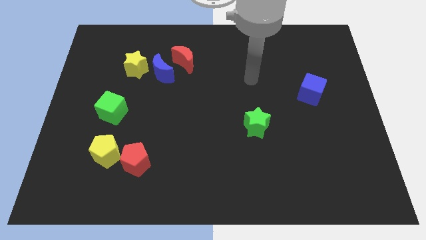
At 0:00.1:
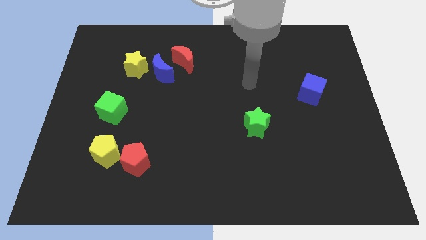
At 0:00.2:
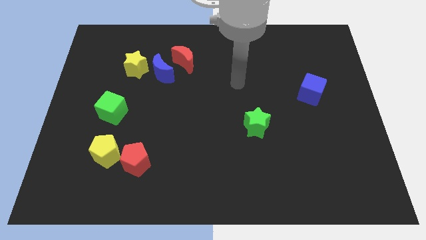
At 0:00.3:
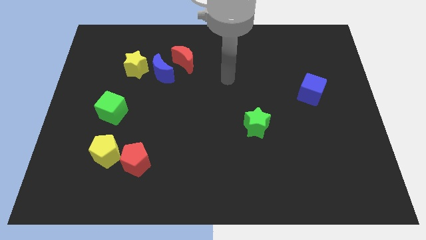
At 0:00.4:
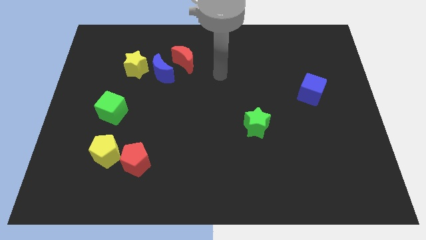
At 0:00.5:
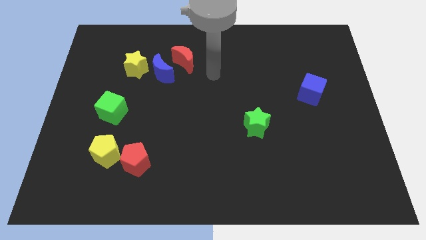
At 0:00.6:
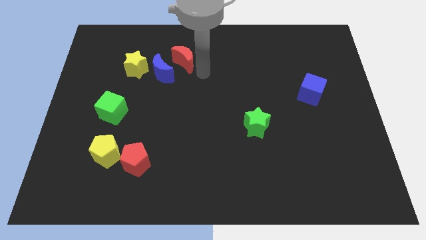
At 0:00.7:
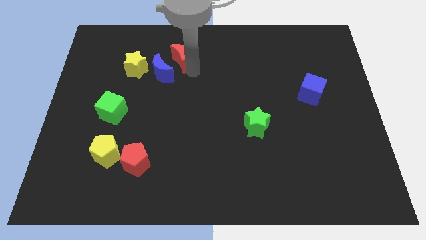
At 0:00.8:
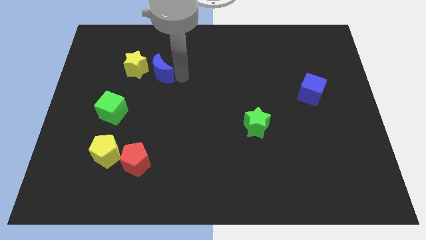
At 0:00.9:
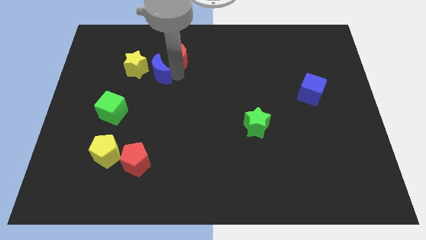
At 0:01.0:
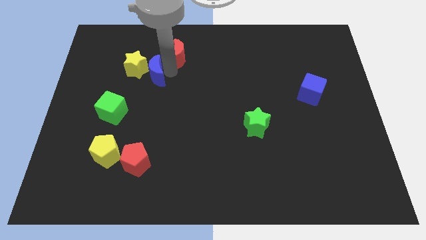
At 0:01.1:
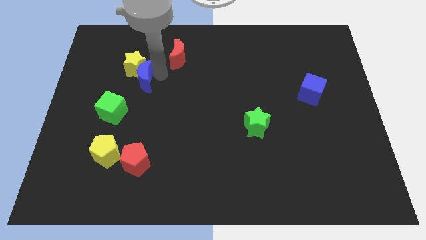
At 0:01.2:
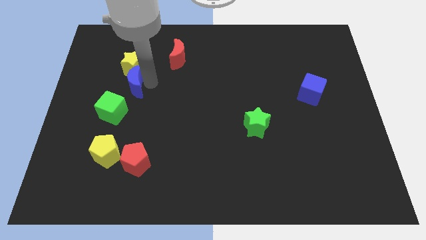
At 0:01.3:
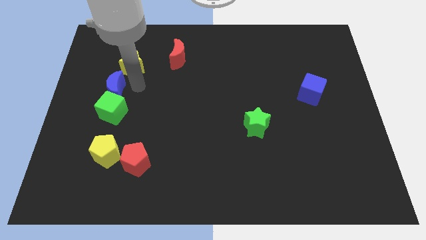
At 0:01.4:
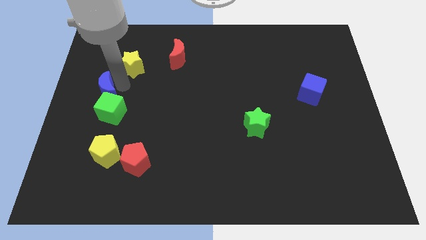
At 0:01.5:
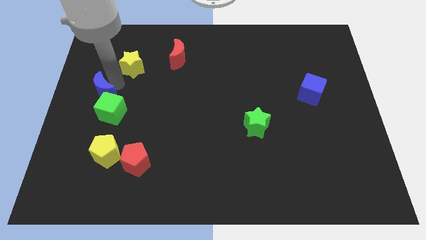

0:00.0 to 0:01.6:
pull the yellow star apart from the blue moon

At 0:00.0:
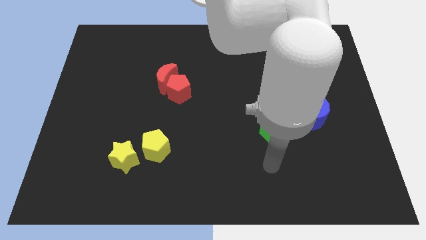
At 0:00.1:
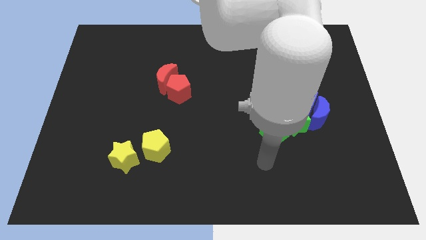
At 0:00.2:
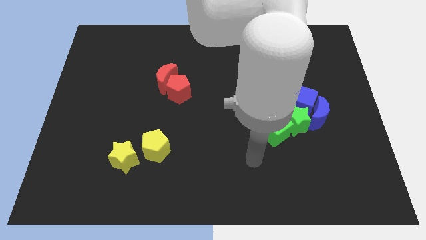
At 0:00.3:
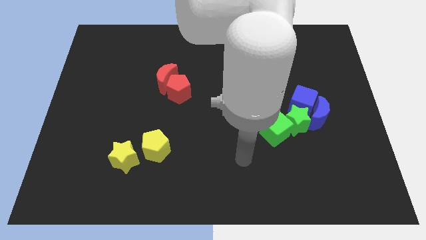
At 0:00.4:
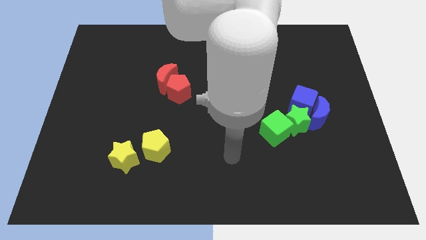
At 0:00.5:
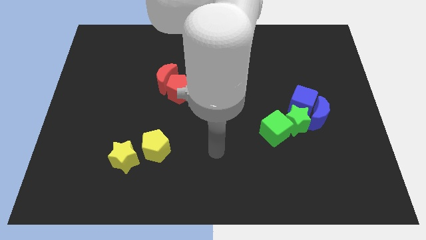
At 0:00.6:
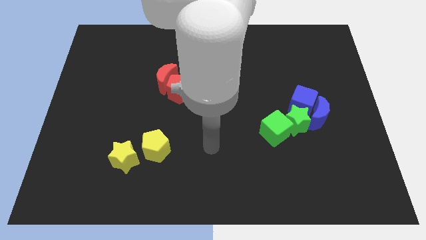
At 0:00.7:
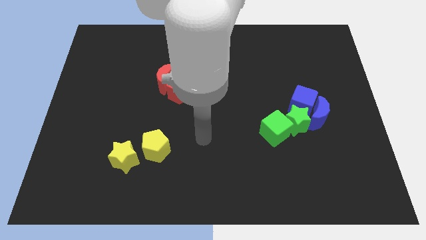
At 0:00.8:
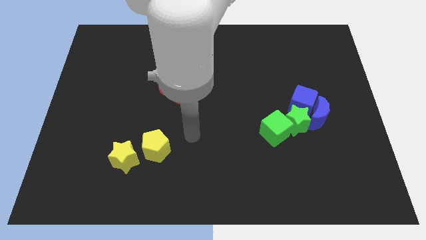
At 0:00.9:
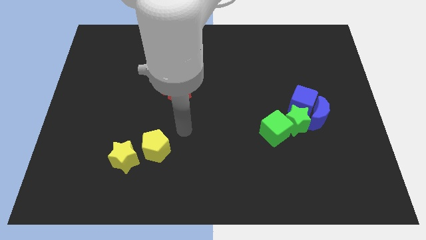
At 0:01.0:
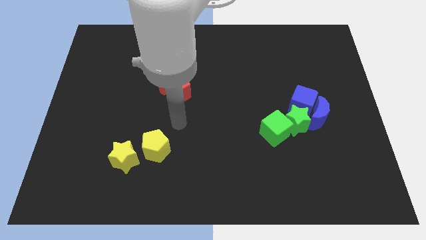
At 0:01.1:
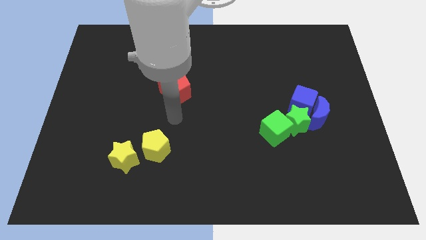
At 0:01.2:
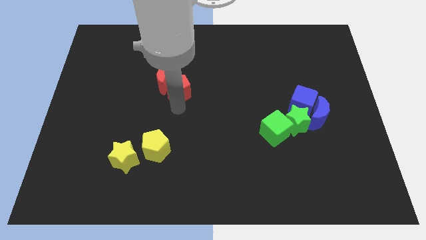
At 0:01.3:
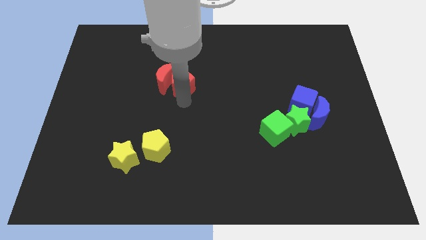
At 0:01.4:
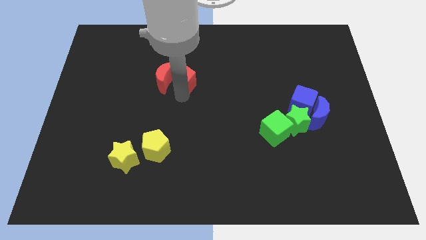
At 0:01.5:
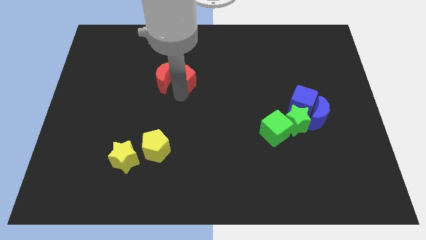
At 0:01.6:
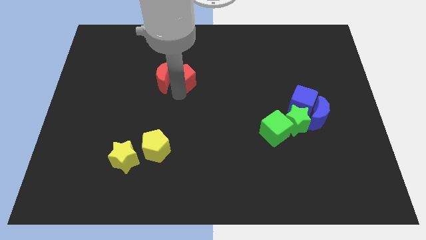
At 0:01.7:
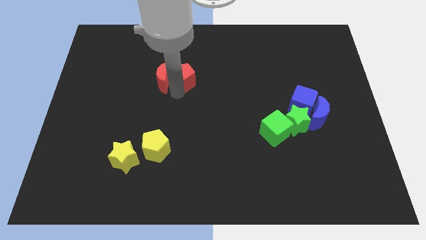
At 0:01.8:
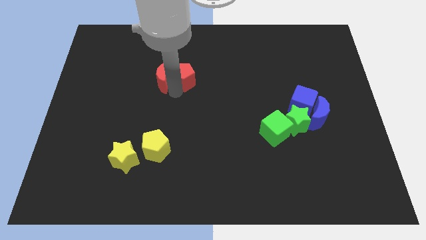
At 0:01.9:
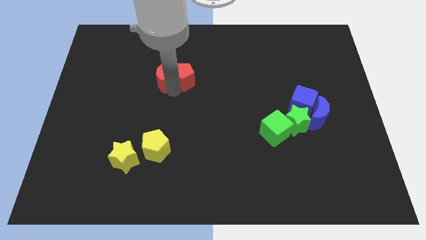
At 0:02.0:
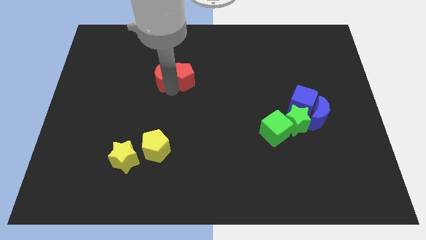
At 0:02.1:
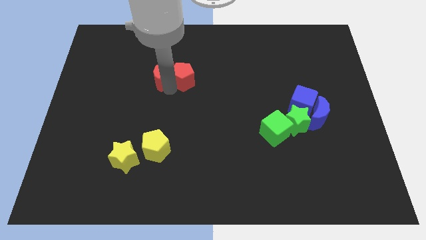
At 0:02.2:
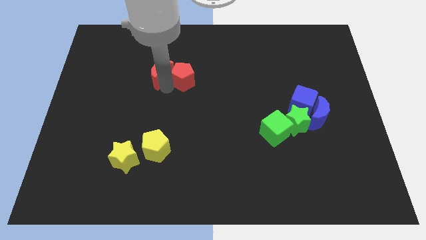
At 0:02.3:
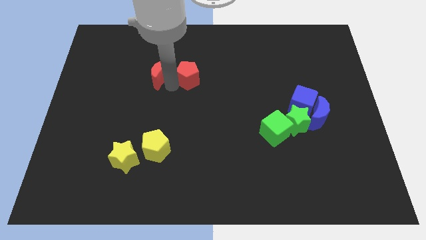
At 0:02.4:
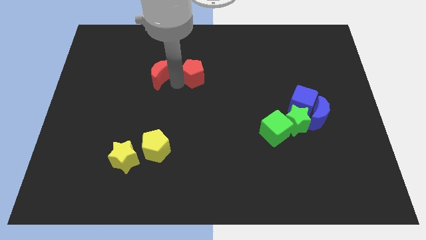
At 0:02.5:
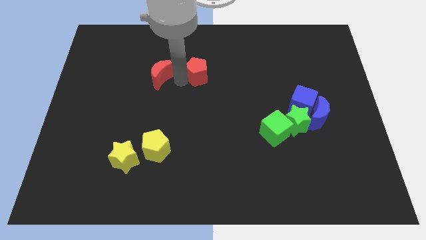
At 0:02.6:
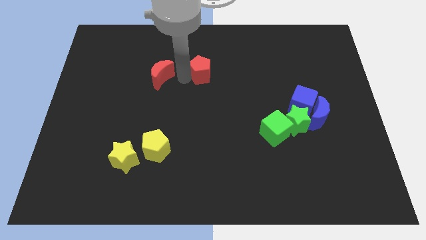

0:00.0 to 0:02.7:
move the red moon away from the red pentagon

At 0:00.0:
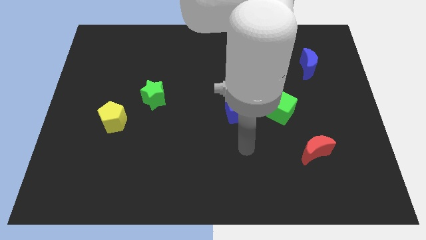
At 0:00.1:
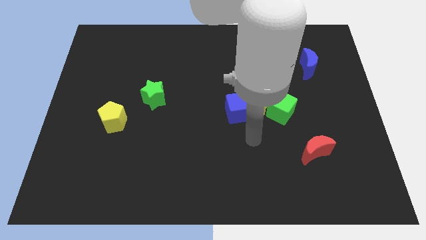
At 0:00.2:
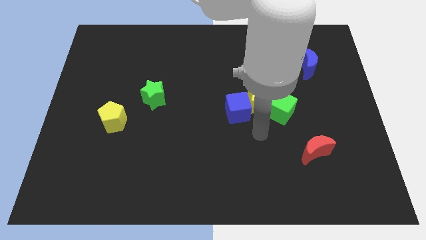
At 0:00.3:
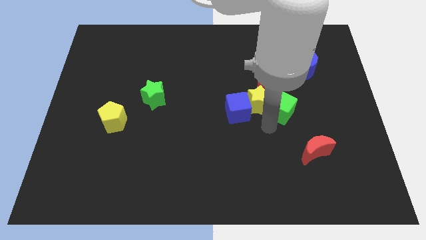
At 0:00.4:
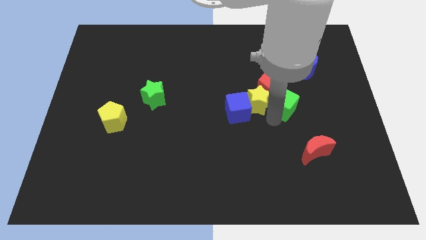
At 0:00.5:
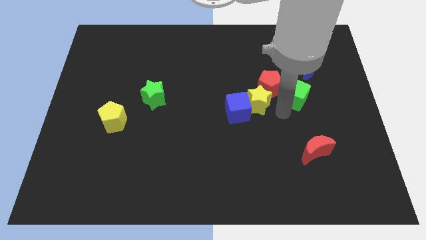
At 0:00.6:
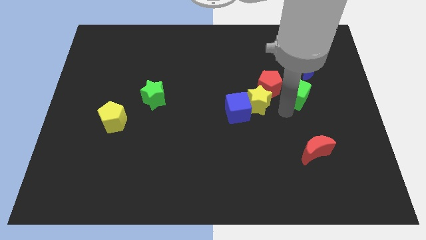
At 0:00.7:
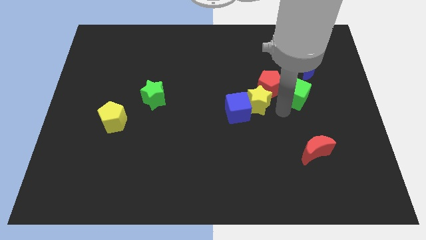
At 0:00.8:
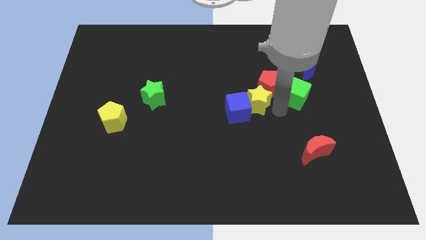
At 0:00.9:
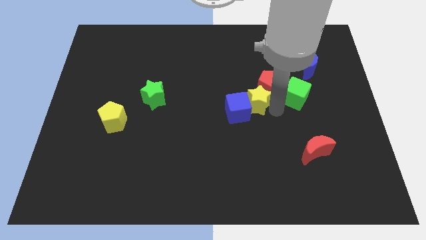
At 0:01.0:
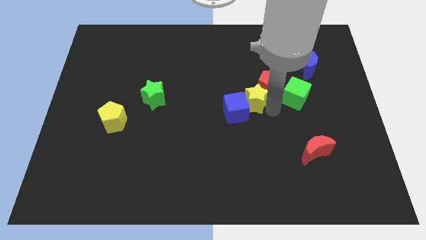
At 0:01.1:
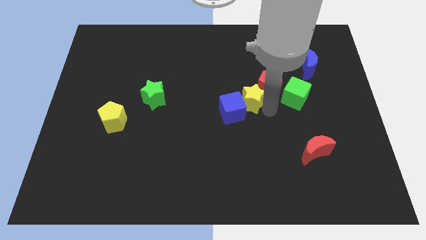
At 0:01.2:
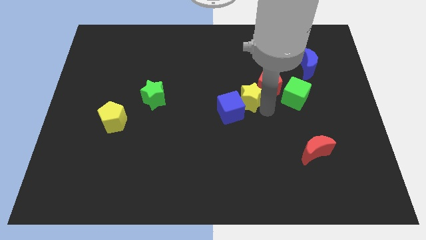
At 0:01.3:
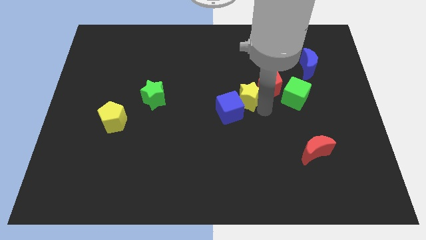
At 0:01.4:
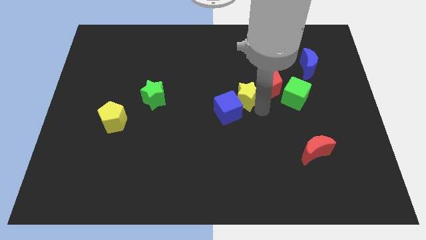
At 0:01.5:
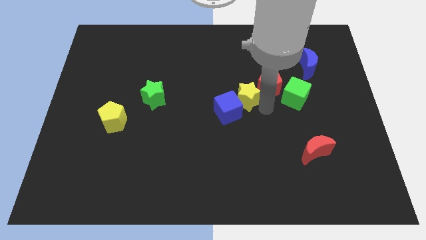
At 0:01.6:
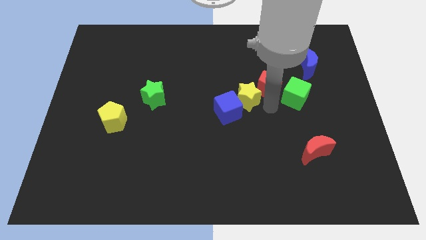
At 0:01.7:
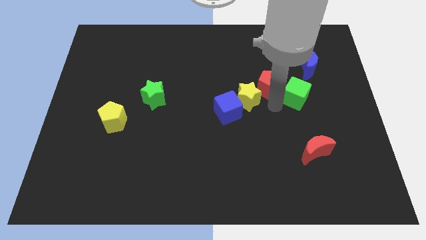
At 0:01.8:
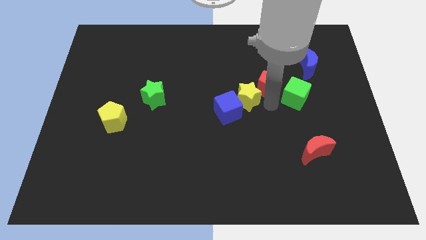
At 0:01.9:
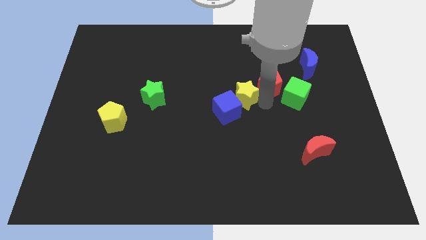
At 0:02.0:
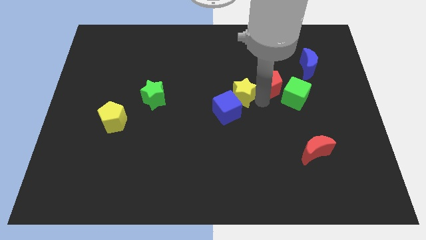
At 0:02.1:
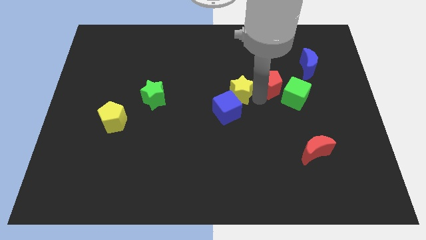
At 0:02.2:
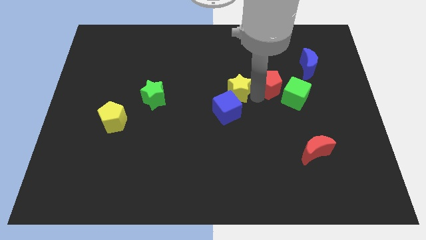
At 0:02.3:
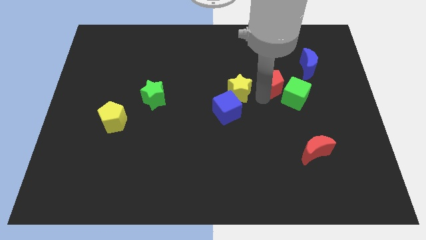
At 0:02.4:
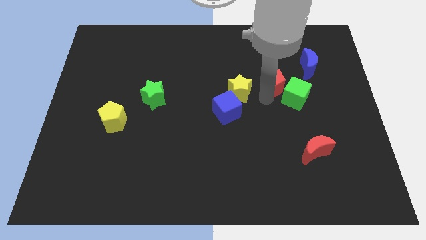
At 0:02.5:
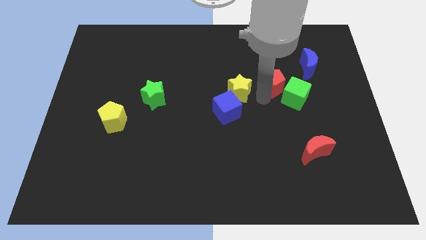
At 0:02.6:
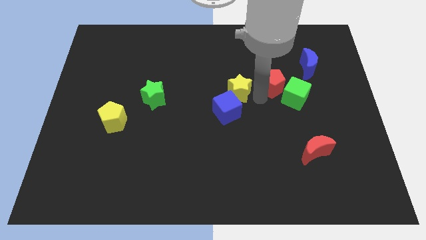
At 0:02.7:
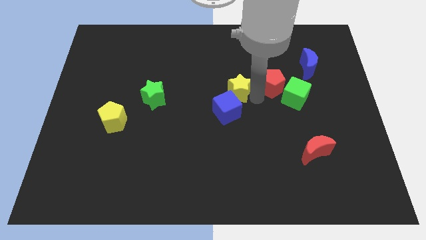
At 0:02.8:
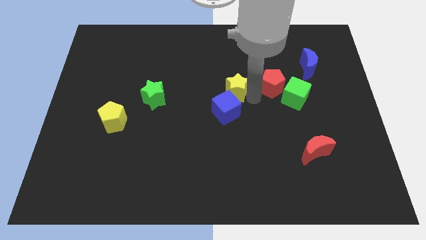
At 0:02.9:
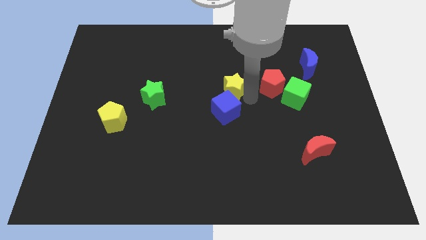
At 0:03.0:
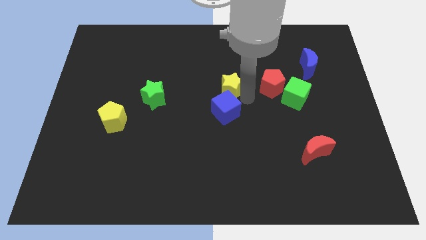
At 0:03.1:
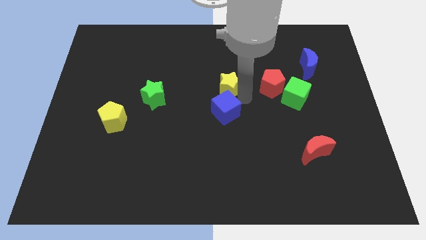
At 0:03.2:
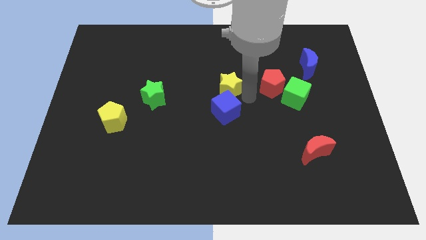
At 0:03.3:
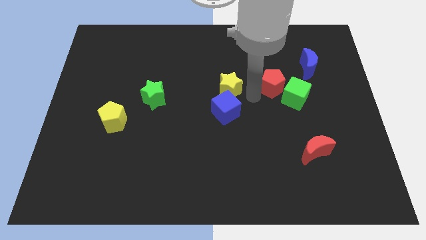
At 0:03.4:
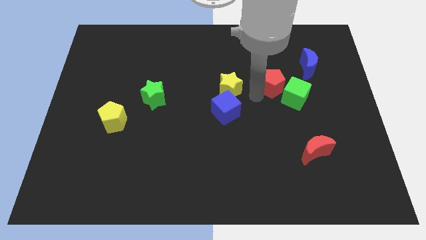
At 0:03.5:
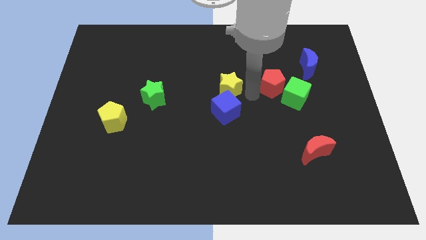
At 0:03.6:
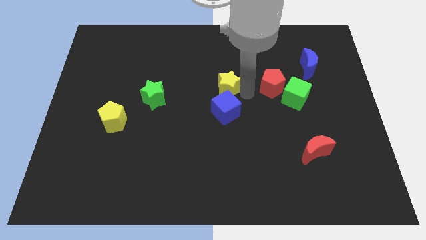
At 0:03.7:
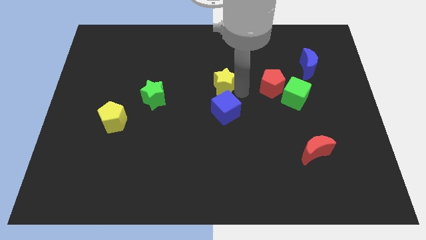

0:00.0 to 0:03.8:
move the yellow star away from the red pentagon, blue cube, and green cube

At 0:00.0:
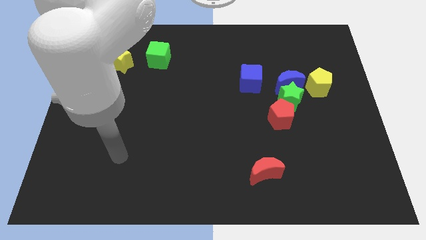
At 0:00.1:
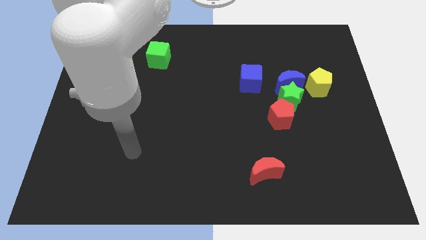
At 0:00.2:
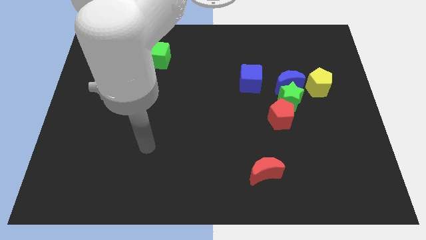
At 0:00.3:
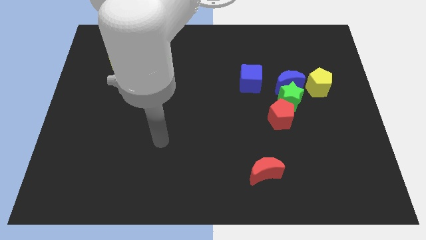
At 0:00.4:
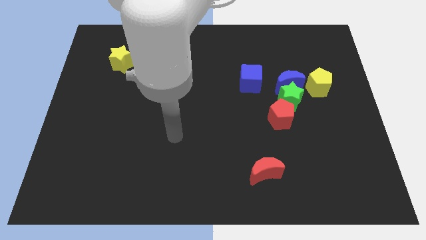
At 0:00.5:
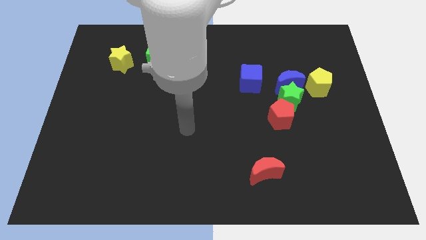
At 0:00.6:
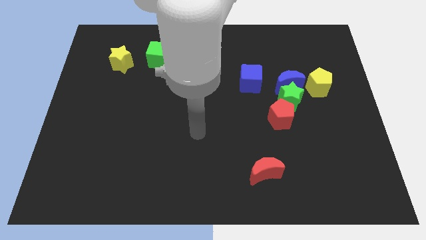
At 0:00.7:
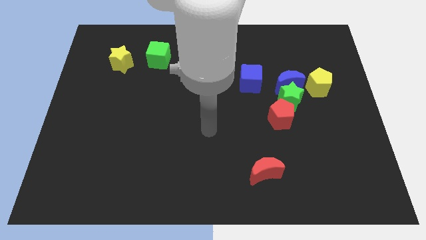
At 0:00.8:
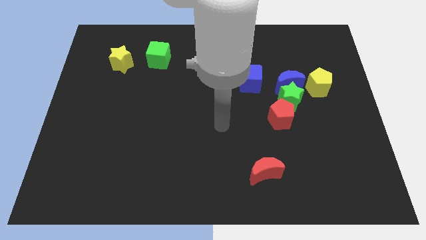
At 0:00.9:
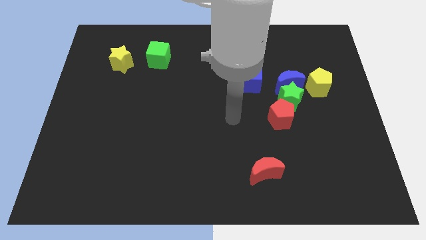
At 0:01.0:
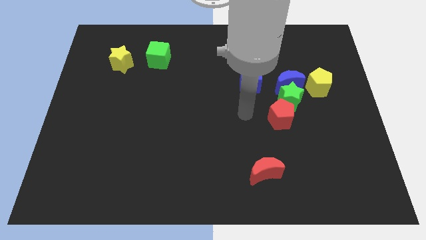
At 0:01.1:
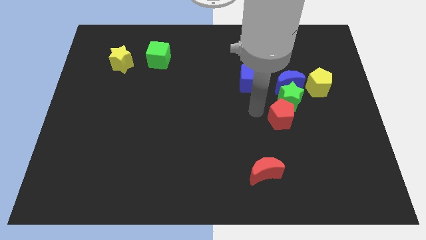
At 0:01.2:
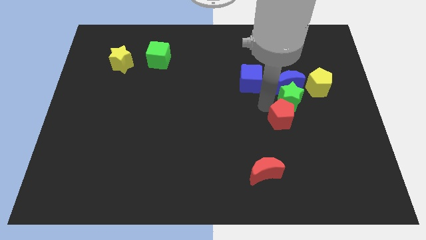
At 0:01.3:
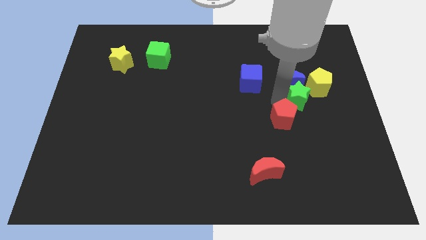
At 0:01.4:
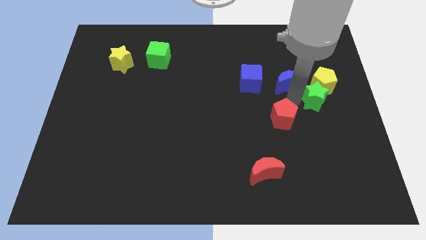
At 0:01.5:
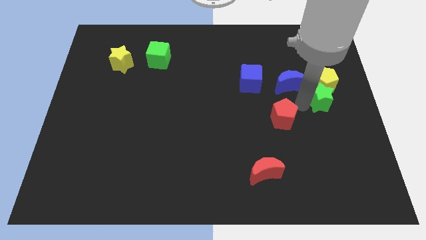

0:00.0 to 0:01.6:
separate the red pentagon from the green star
